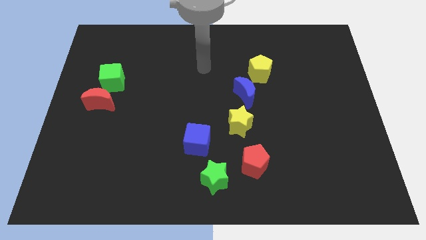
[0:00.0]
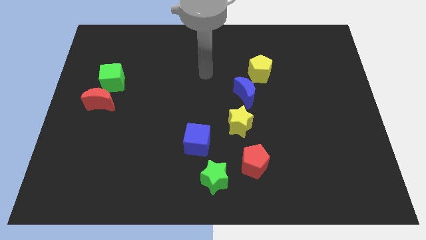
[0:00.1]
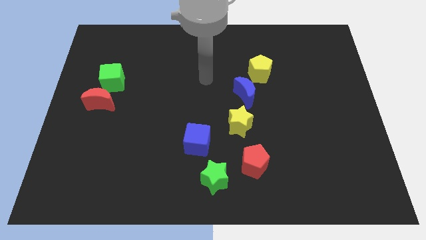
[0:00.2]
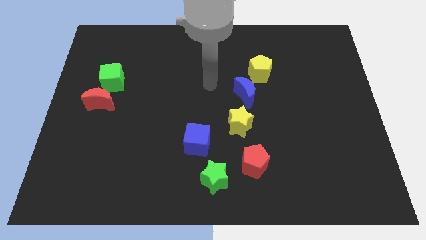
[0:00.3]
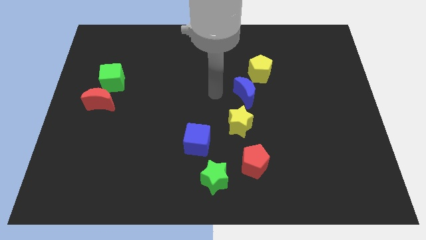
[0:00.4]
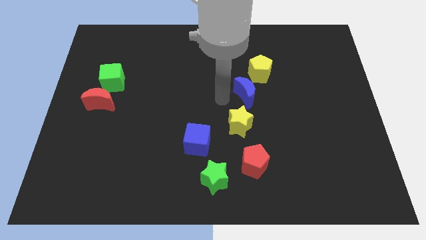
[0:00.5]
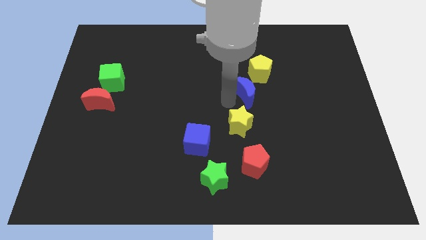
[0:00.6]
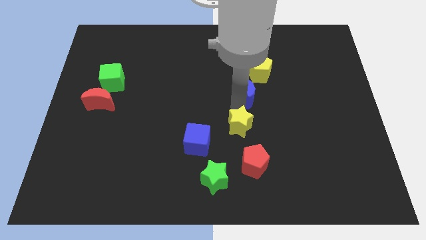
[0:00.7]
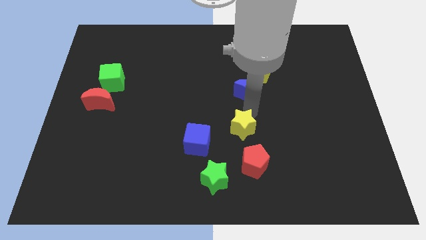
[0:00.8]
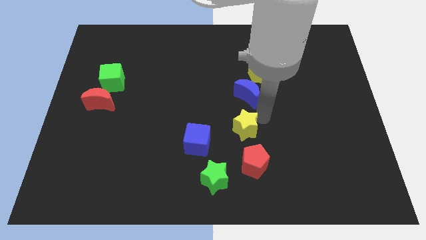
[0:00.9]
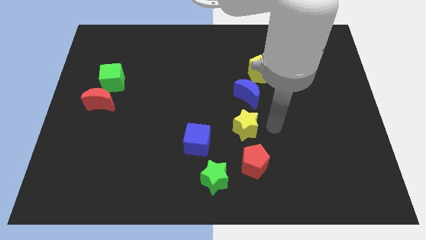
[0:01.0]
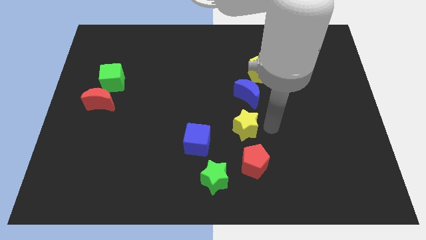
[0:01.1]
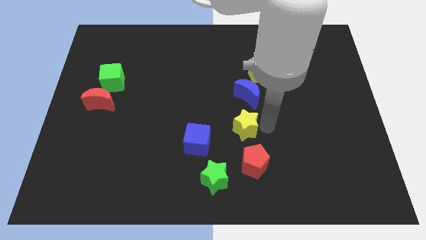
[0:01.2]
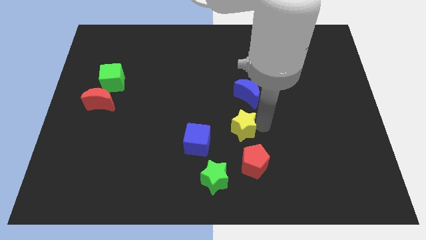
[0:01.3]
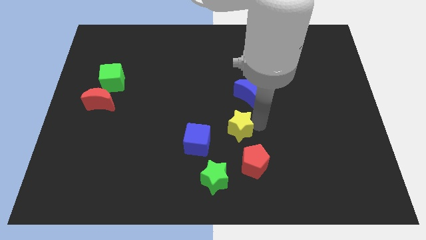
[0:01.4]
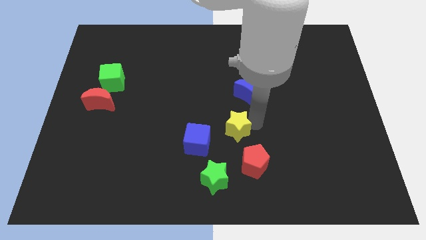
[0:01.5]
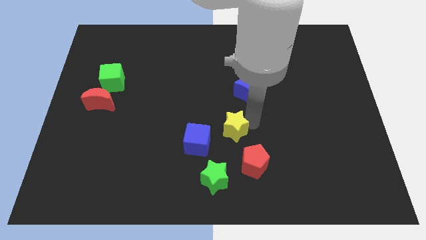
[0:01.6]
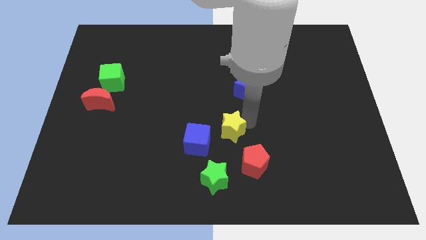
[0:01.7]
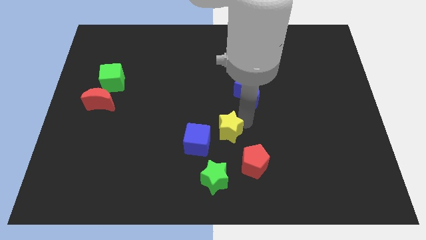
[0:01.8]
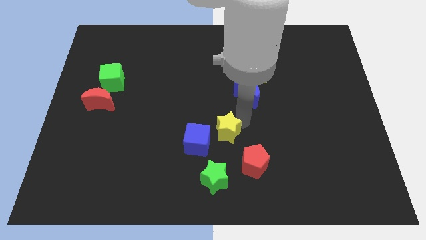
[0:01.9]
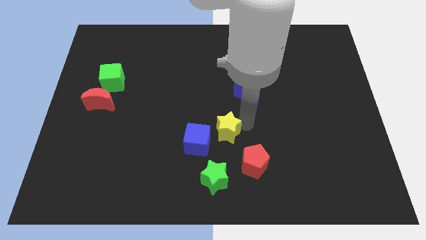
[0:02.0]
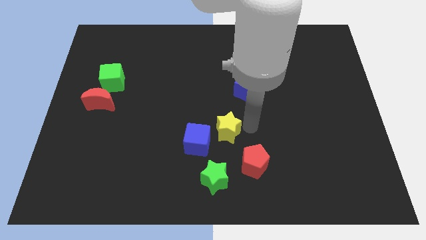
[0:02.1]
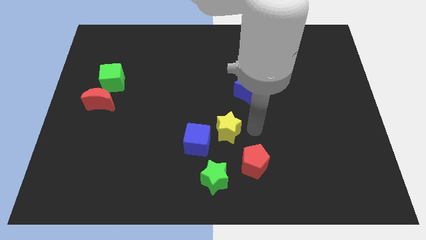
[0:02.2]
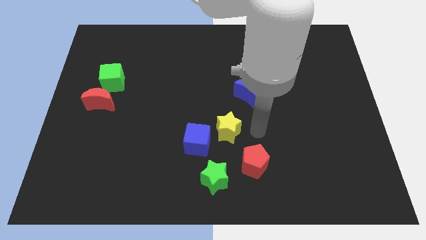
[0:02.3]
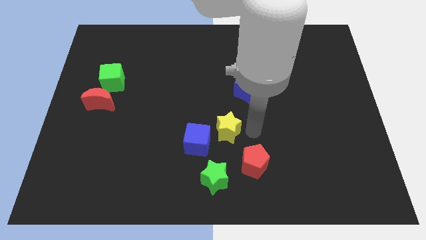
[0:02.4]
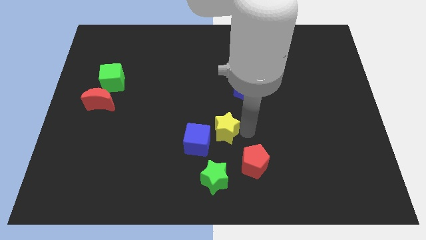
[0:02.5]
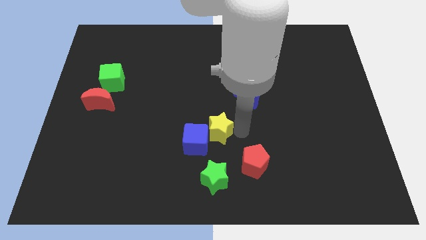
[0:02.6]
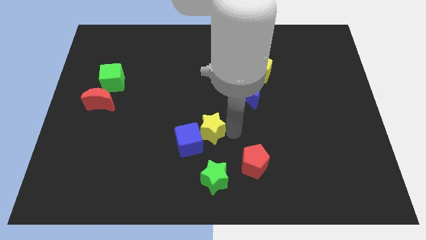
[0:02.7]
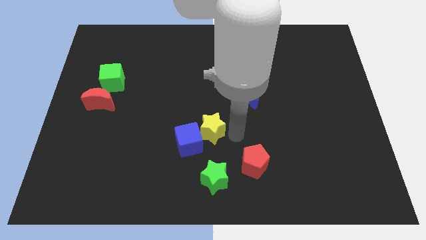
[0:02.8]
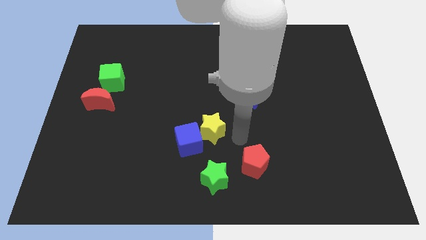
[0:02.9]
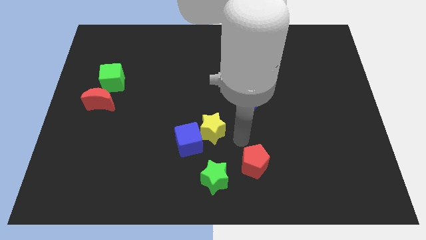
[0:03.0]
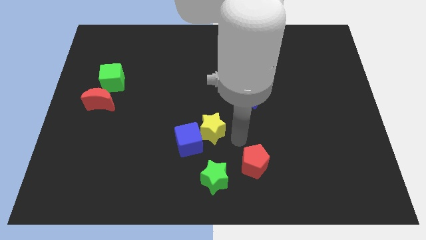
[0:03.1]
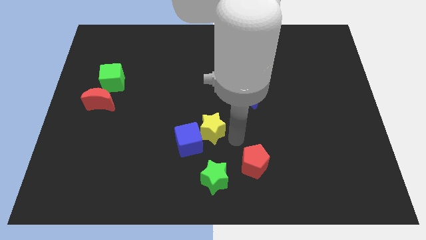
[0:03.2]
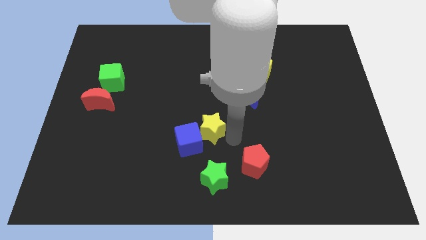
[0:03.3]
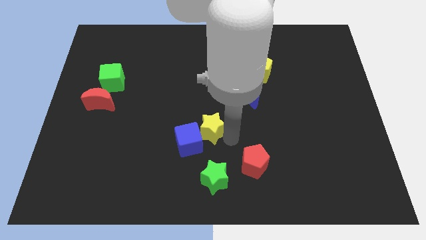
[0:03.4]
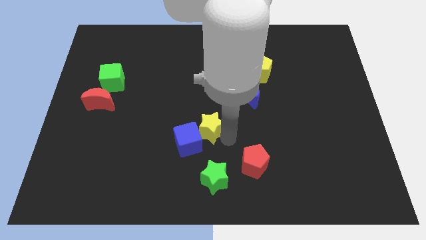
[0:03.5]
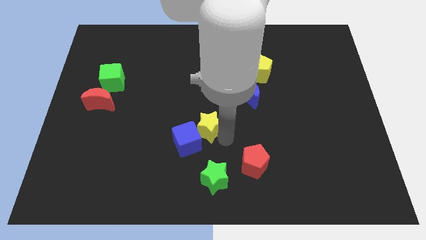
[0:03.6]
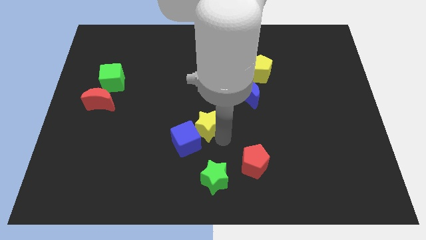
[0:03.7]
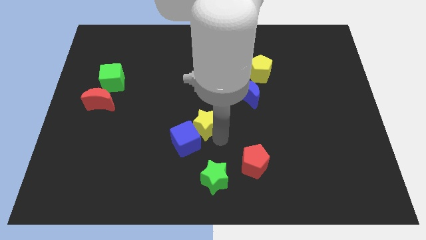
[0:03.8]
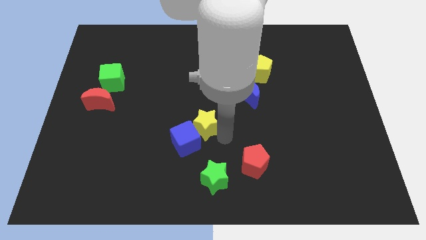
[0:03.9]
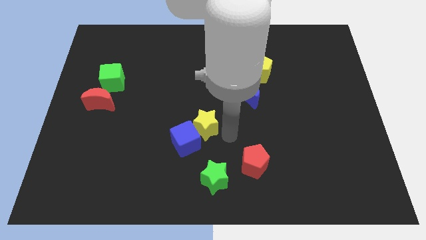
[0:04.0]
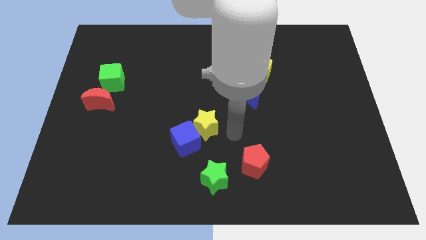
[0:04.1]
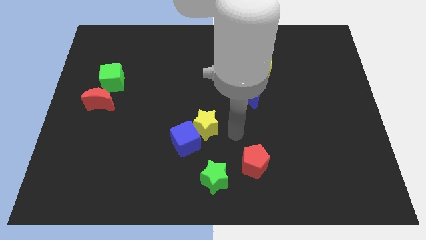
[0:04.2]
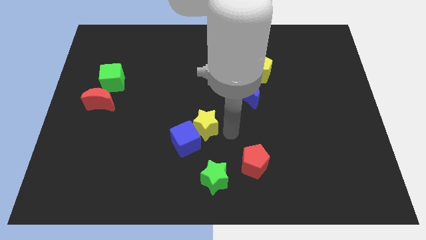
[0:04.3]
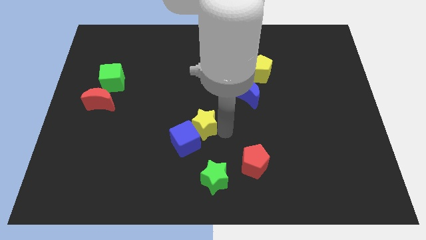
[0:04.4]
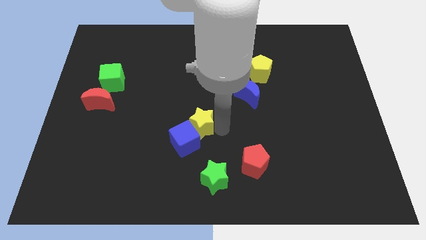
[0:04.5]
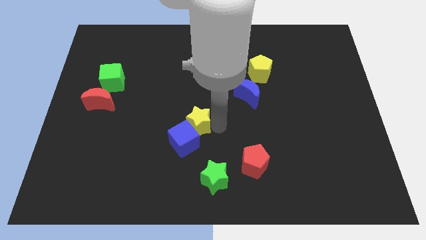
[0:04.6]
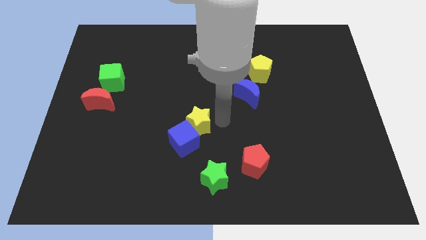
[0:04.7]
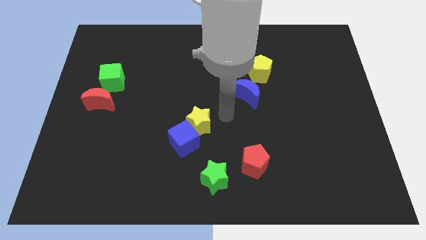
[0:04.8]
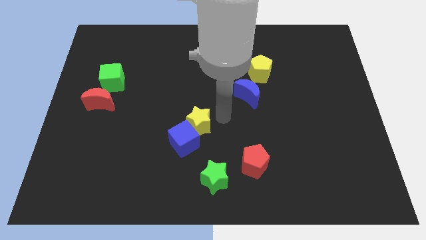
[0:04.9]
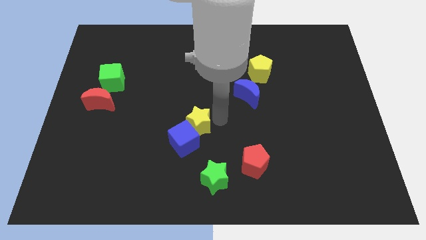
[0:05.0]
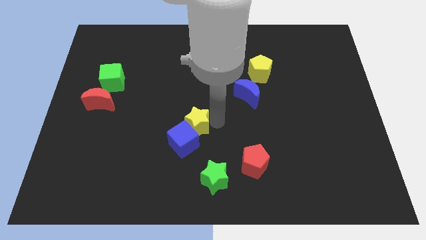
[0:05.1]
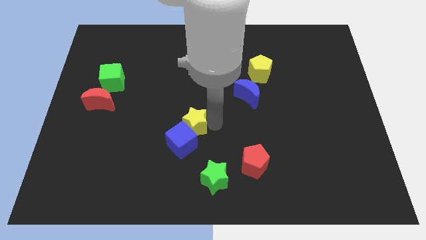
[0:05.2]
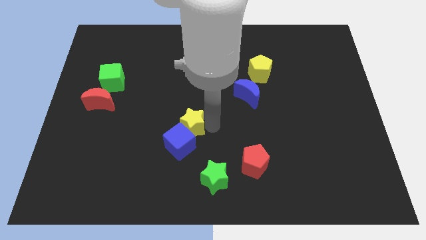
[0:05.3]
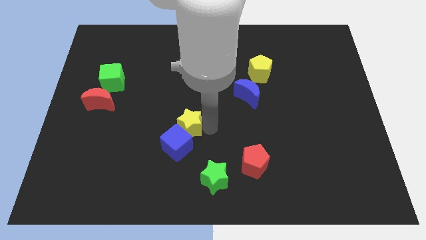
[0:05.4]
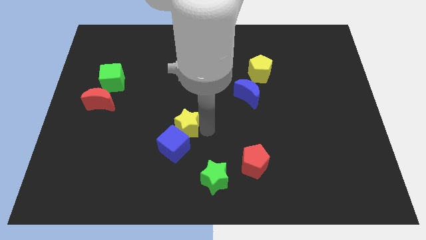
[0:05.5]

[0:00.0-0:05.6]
slide the yellow star downwards and to the left diagonally a bit

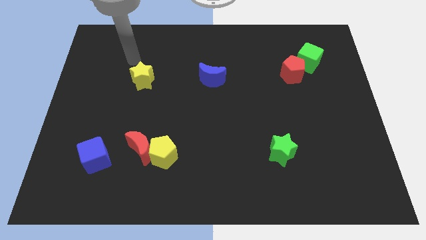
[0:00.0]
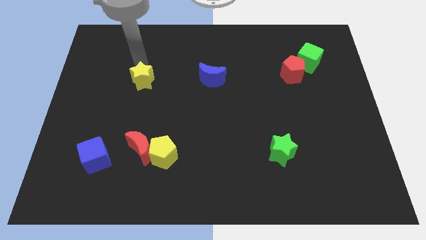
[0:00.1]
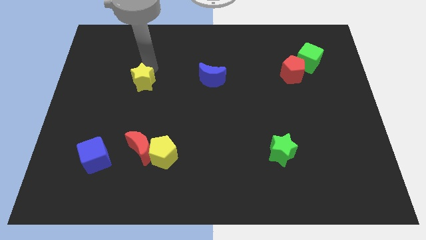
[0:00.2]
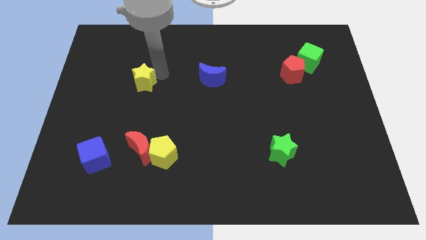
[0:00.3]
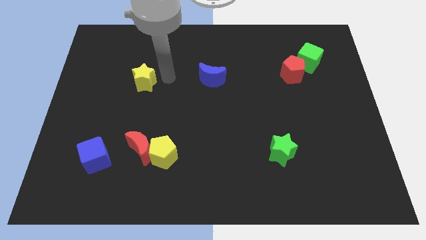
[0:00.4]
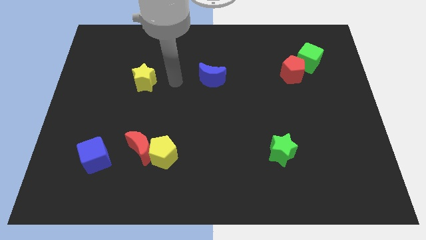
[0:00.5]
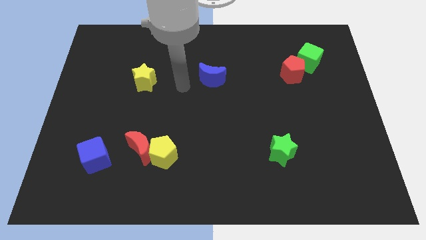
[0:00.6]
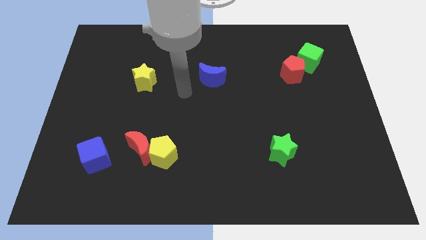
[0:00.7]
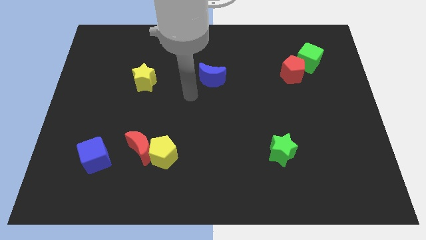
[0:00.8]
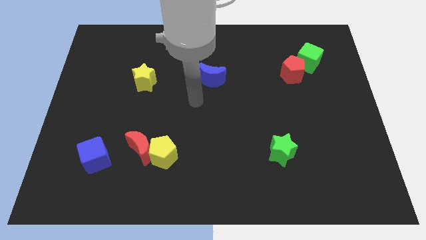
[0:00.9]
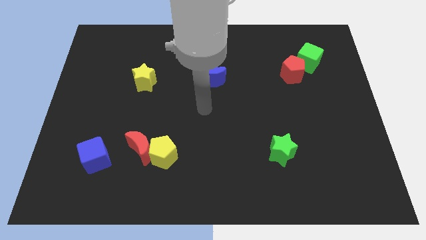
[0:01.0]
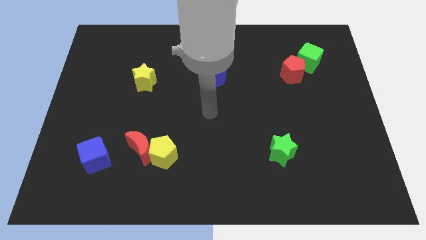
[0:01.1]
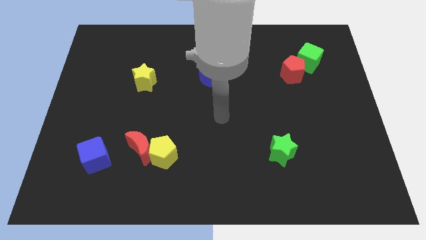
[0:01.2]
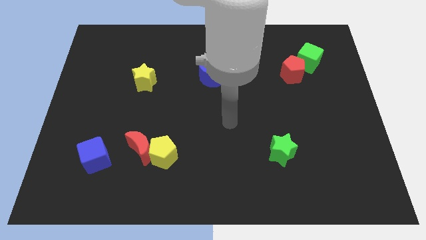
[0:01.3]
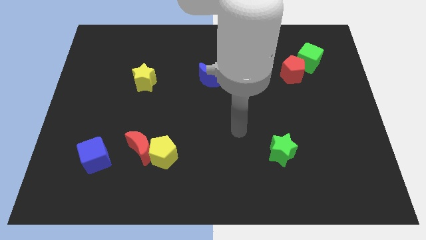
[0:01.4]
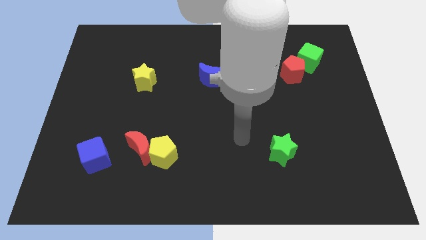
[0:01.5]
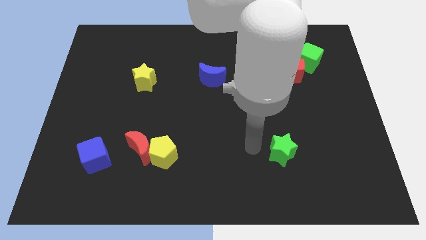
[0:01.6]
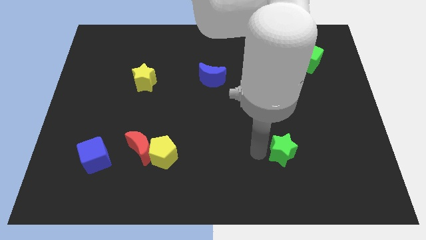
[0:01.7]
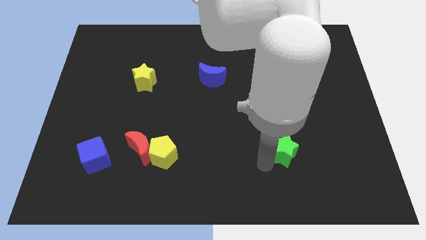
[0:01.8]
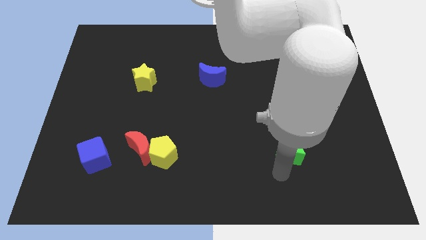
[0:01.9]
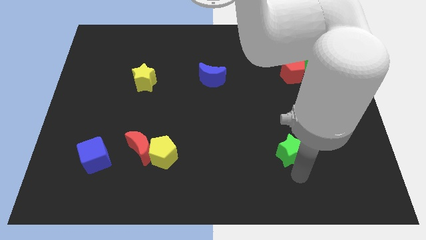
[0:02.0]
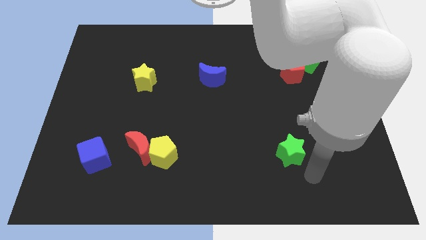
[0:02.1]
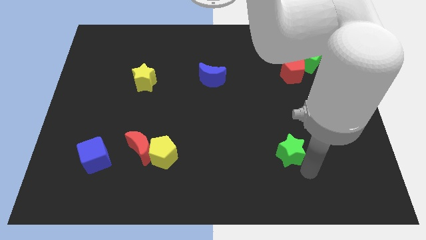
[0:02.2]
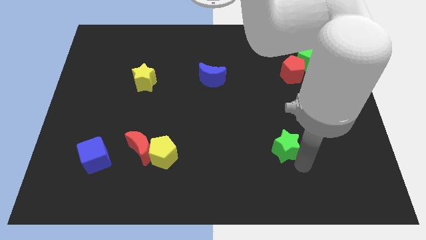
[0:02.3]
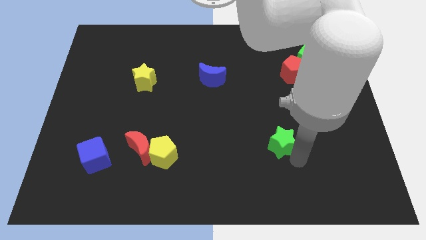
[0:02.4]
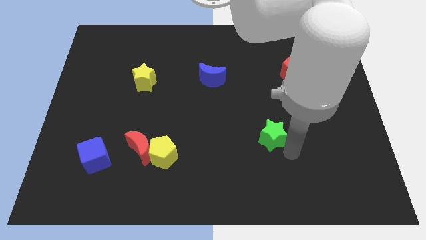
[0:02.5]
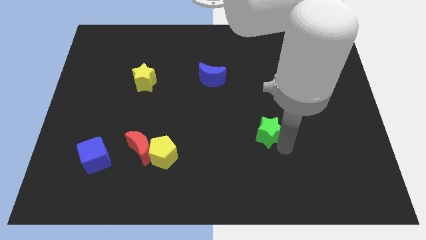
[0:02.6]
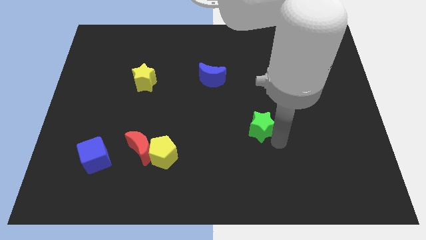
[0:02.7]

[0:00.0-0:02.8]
move the green star slightly diagonally upwards and to the left
